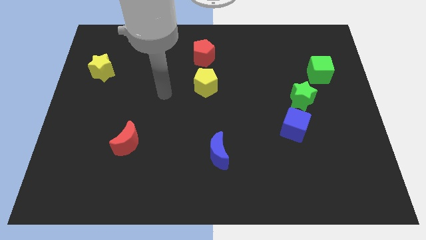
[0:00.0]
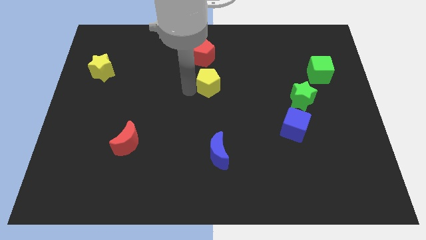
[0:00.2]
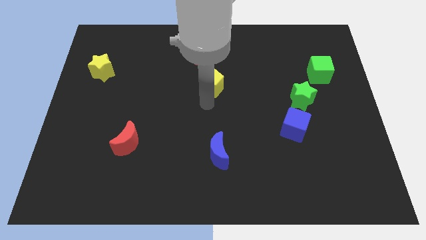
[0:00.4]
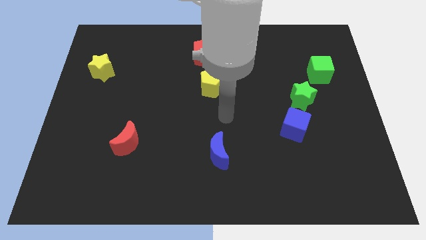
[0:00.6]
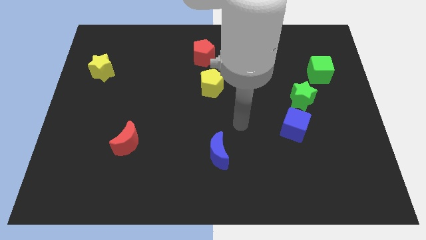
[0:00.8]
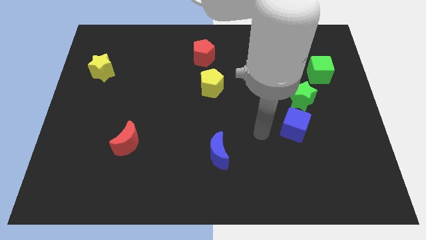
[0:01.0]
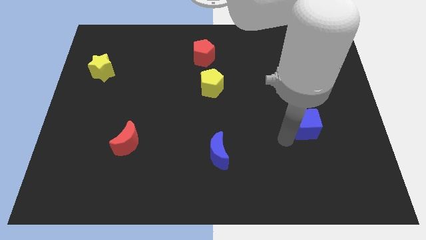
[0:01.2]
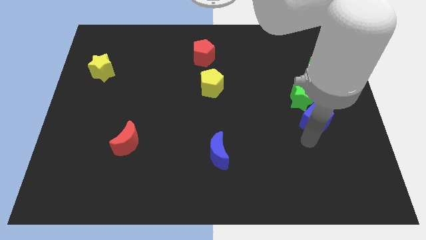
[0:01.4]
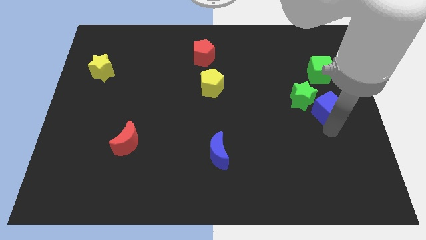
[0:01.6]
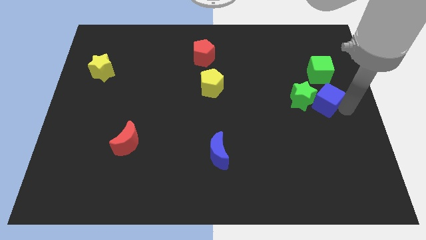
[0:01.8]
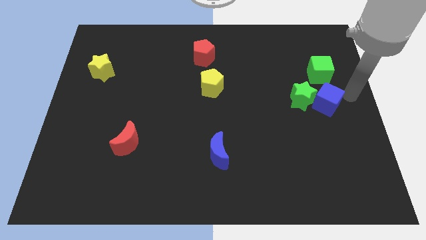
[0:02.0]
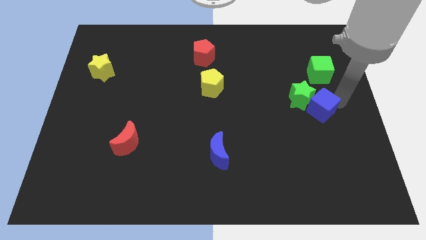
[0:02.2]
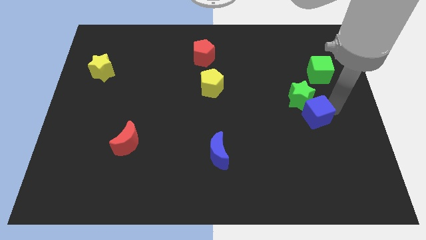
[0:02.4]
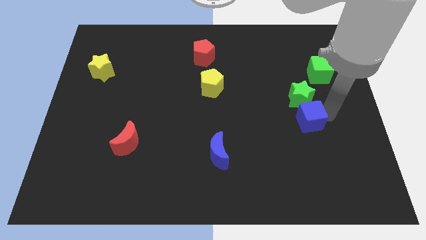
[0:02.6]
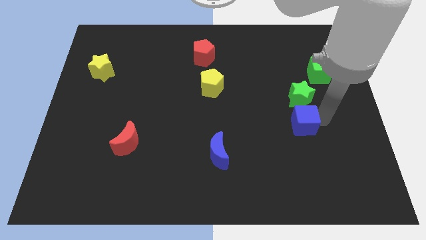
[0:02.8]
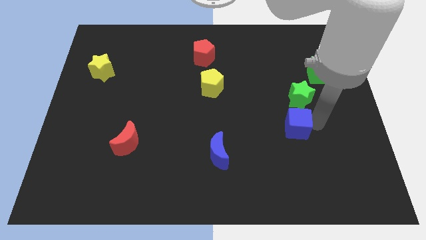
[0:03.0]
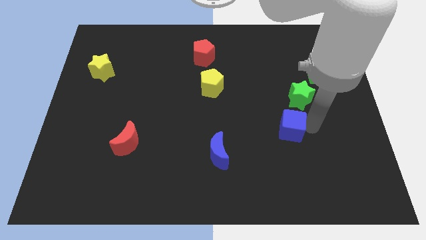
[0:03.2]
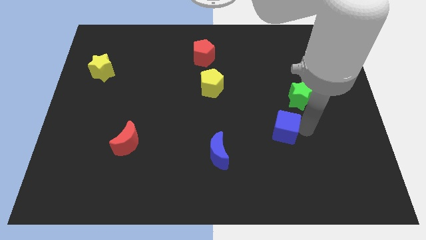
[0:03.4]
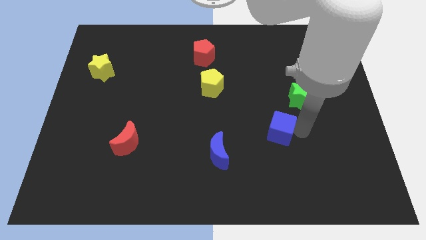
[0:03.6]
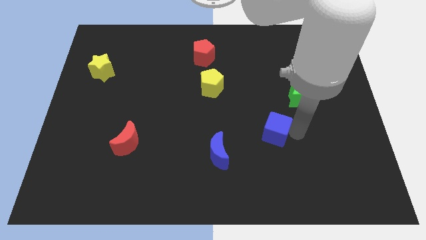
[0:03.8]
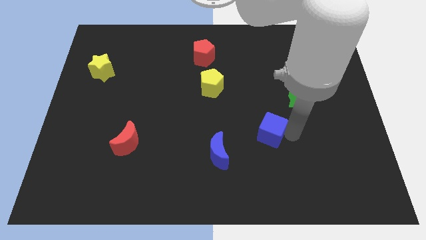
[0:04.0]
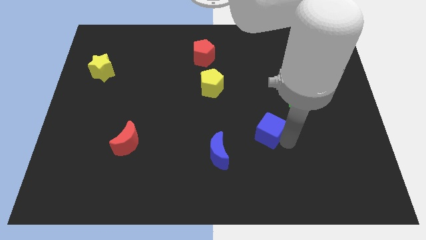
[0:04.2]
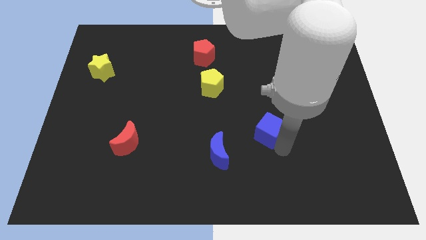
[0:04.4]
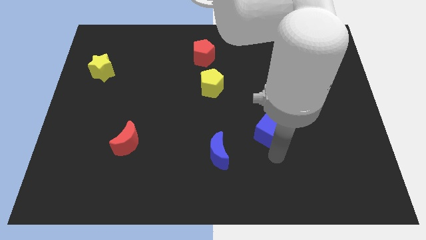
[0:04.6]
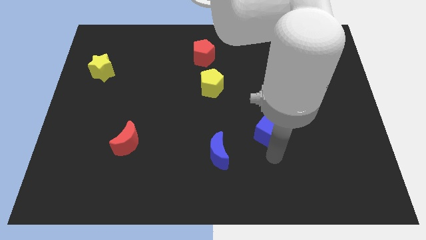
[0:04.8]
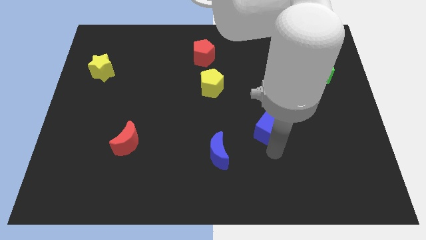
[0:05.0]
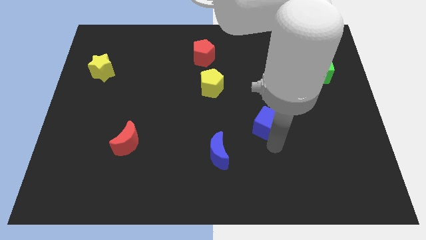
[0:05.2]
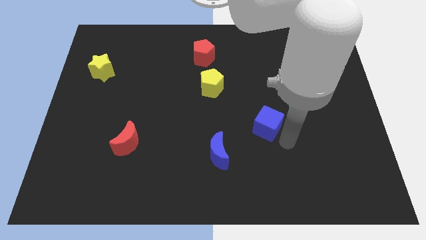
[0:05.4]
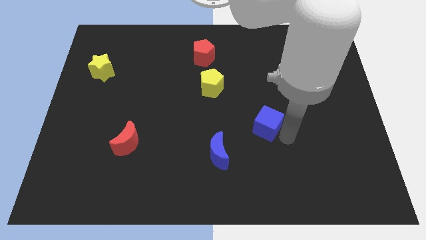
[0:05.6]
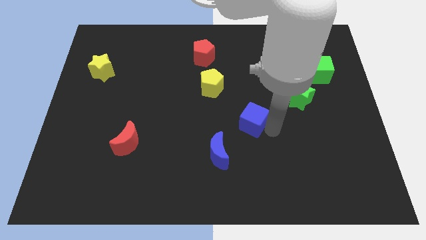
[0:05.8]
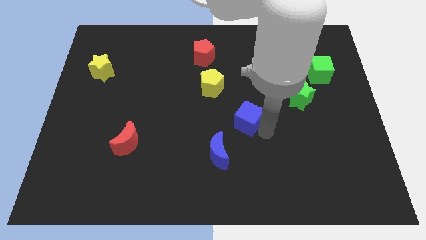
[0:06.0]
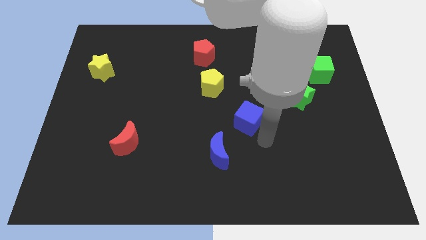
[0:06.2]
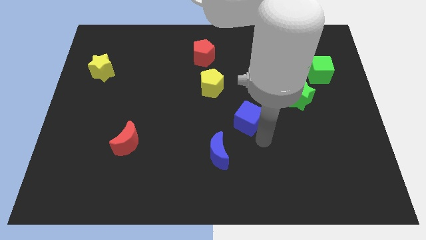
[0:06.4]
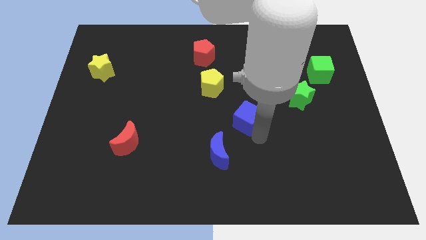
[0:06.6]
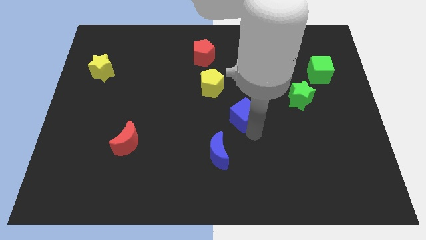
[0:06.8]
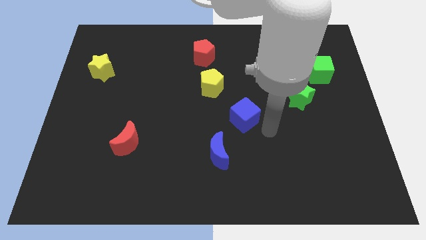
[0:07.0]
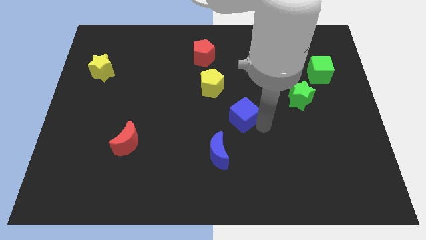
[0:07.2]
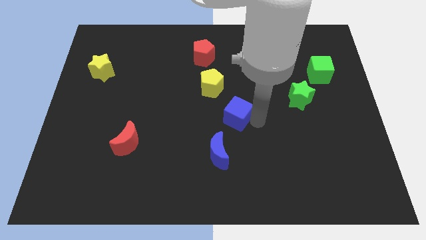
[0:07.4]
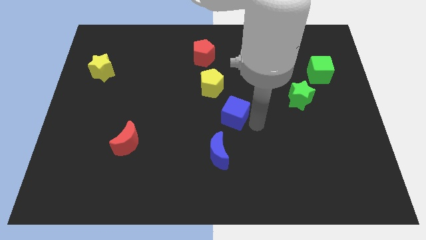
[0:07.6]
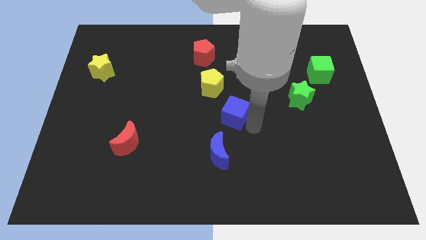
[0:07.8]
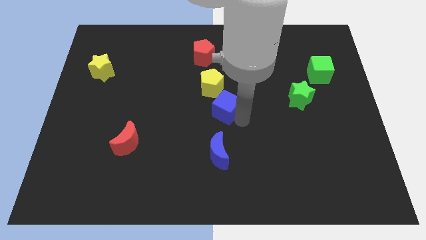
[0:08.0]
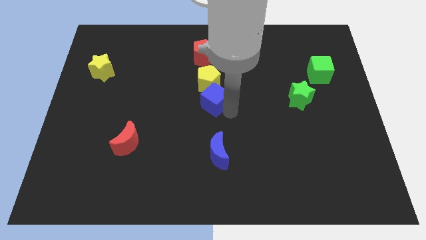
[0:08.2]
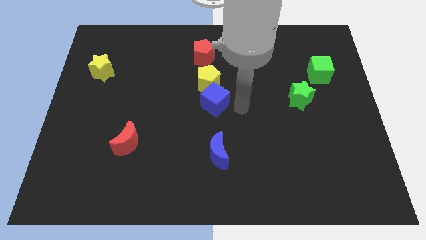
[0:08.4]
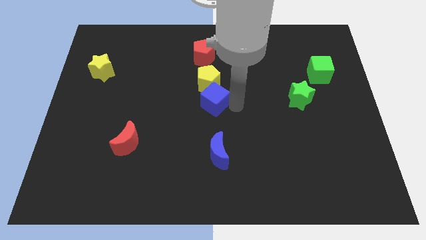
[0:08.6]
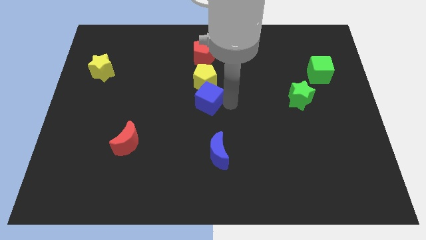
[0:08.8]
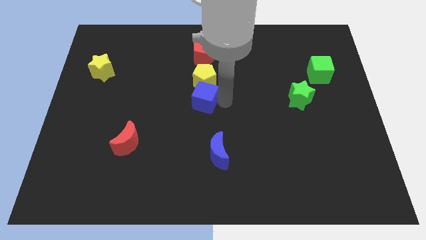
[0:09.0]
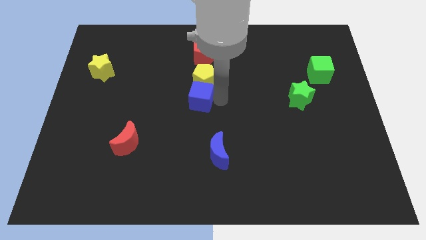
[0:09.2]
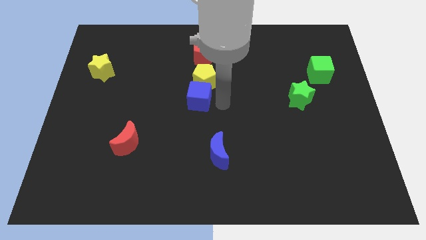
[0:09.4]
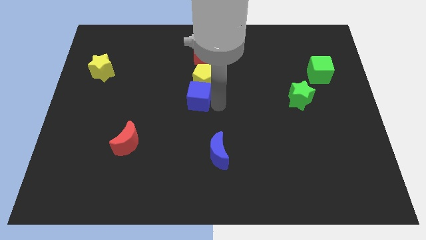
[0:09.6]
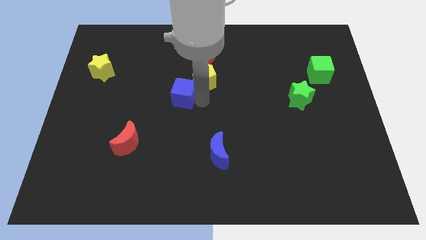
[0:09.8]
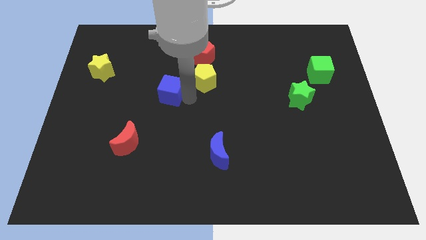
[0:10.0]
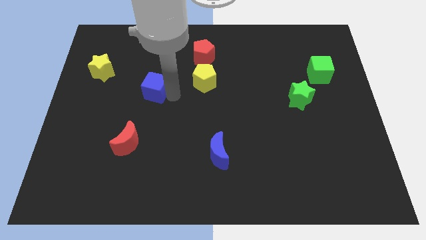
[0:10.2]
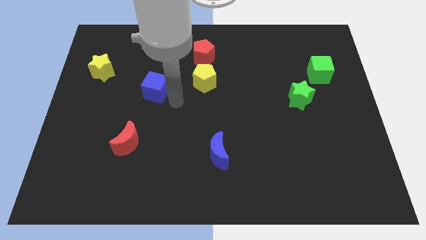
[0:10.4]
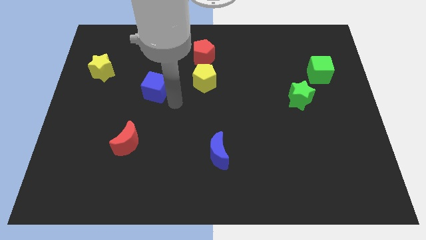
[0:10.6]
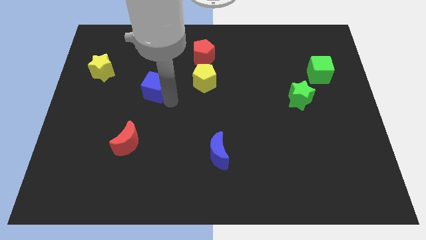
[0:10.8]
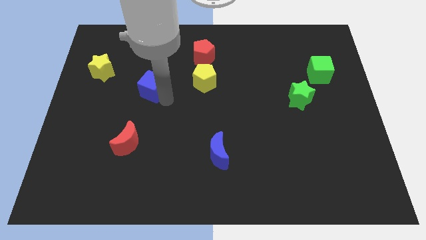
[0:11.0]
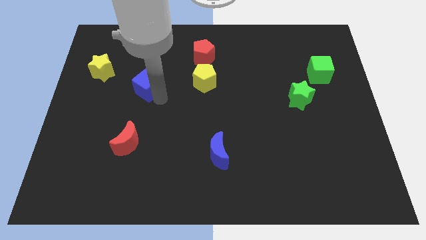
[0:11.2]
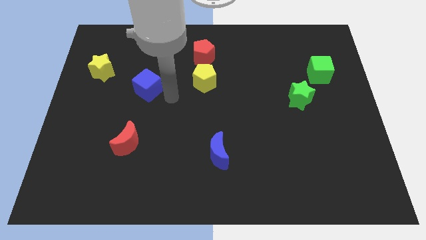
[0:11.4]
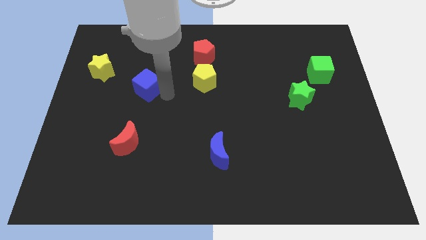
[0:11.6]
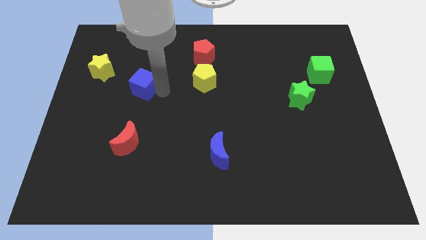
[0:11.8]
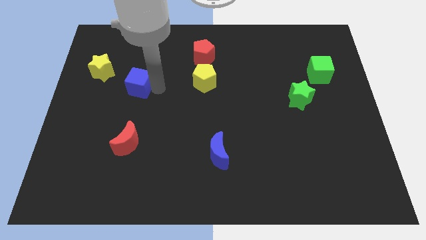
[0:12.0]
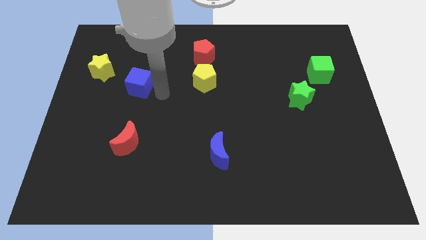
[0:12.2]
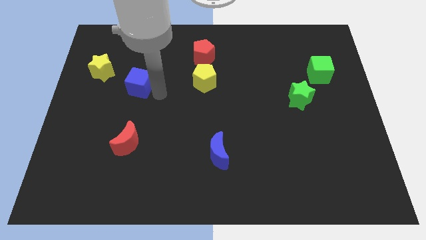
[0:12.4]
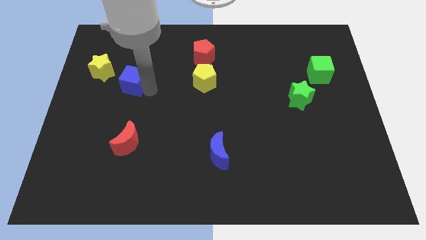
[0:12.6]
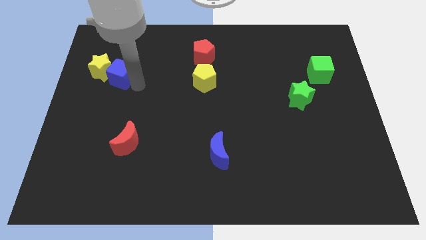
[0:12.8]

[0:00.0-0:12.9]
slide the blue cube close to the yellow star

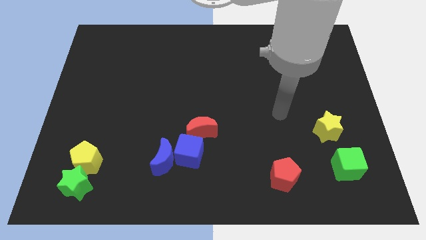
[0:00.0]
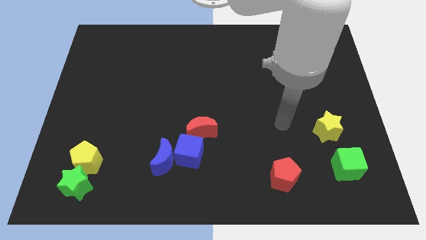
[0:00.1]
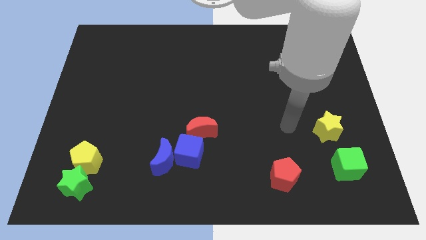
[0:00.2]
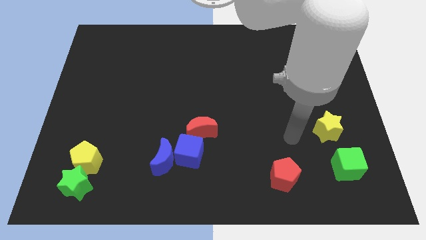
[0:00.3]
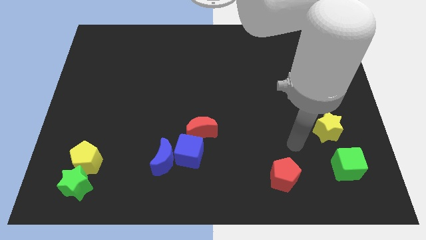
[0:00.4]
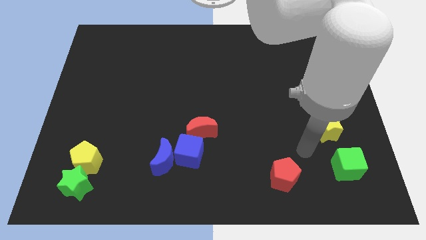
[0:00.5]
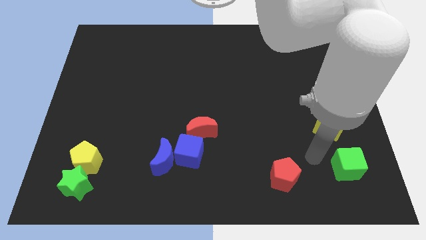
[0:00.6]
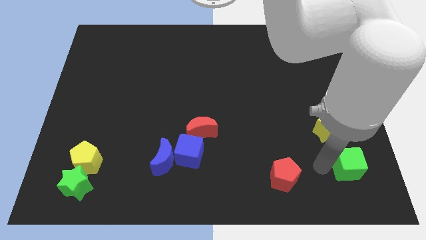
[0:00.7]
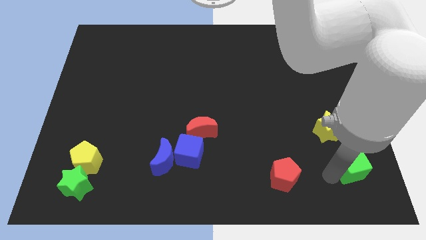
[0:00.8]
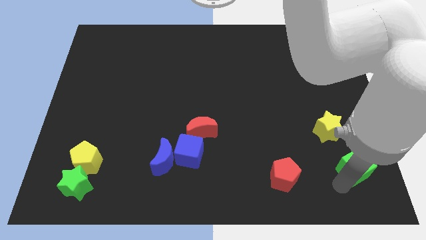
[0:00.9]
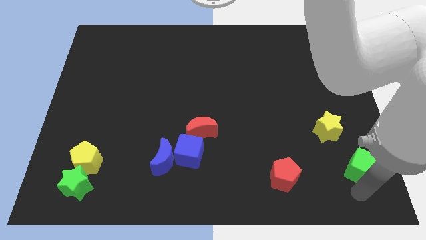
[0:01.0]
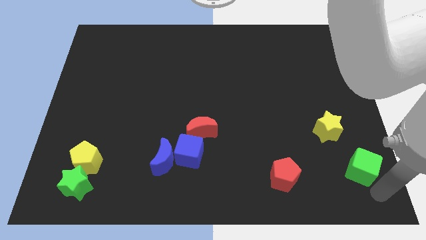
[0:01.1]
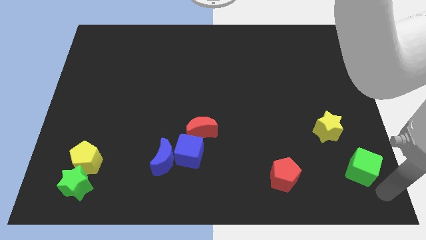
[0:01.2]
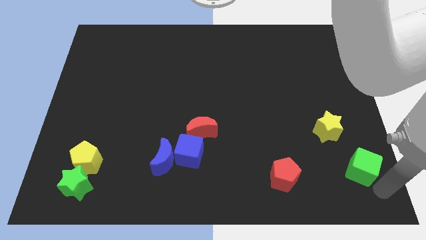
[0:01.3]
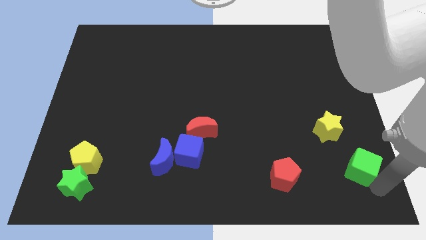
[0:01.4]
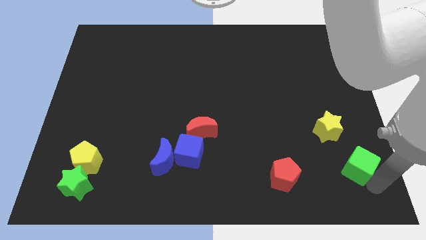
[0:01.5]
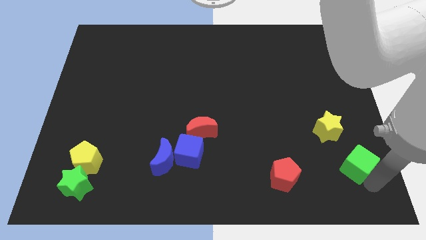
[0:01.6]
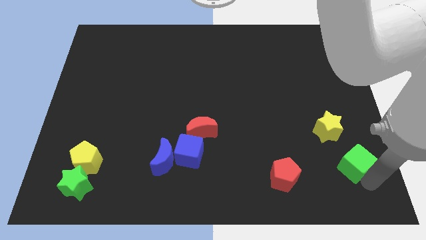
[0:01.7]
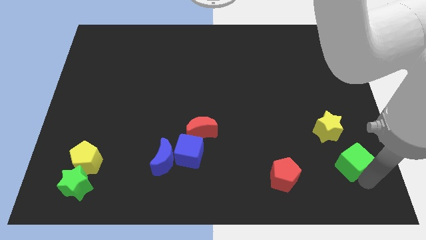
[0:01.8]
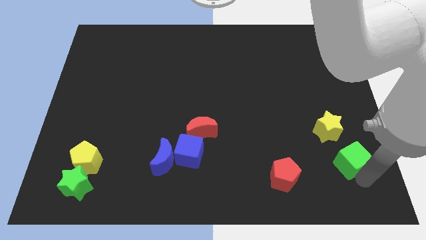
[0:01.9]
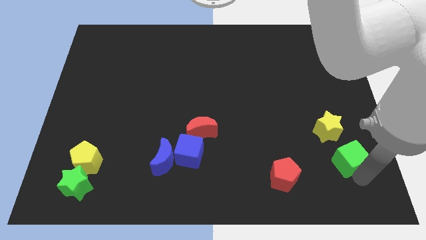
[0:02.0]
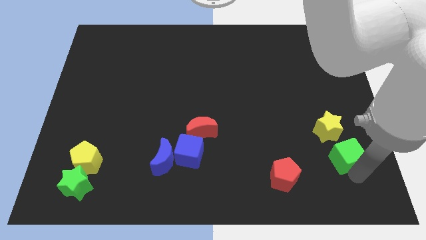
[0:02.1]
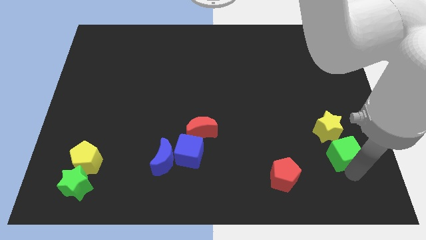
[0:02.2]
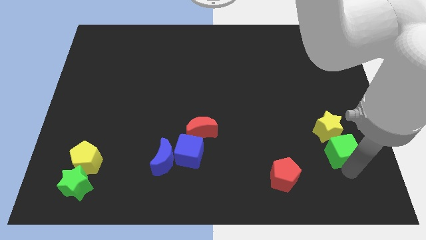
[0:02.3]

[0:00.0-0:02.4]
move the green cube to the yellow star
